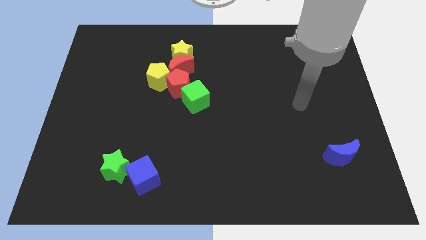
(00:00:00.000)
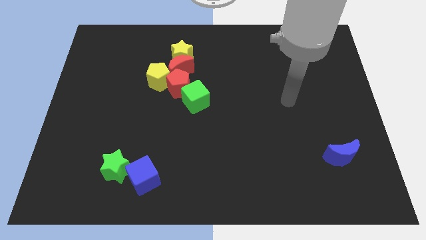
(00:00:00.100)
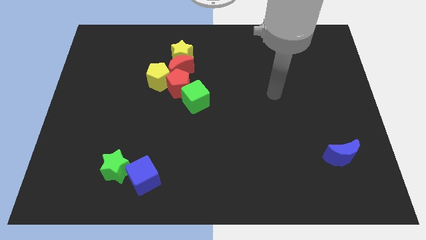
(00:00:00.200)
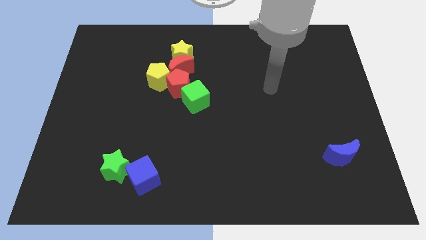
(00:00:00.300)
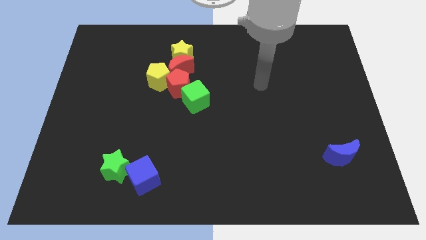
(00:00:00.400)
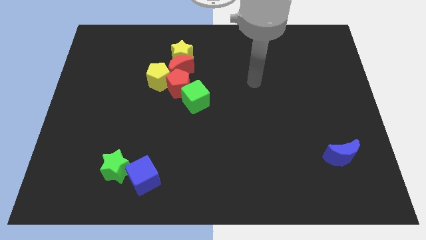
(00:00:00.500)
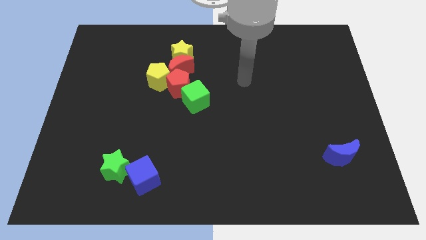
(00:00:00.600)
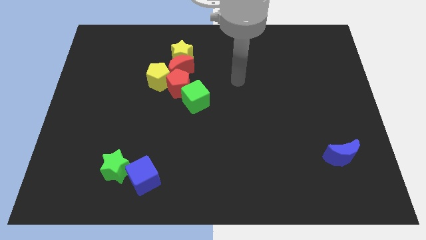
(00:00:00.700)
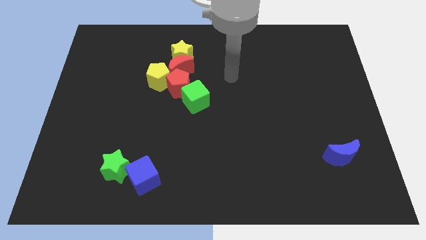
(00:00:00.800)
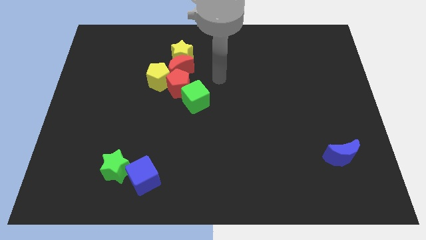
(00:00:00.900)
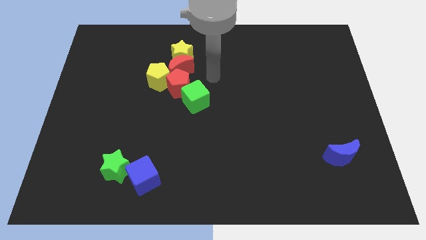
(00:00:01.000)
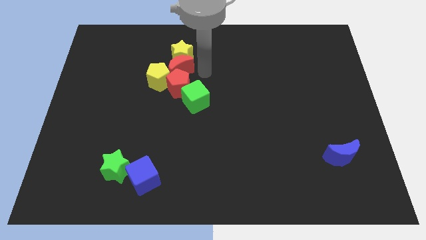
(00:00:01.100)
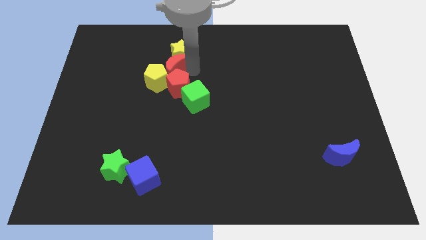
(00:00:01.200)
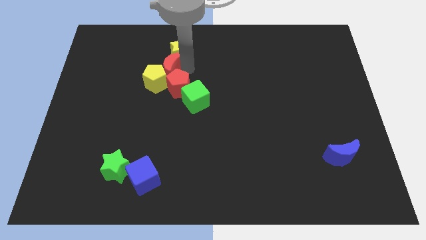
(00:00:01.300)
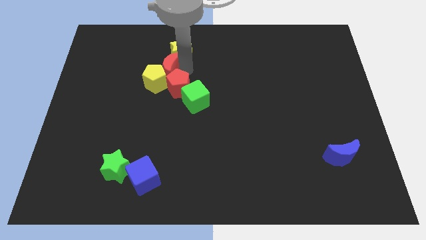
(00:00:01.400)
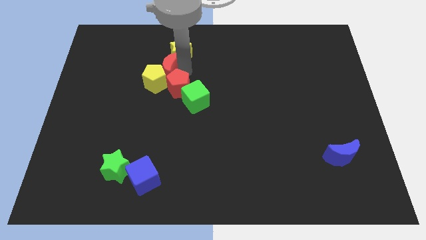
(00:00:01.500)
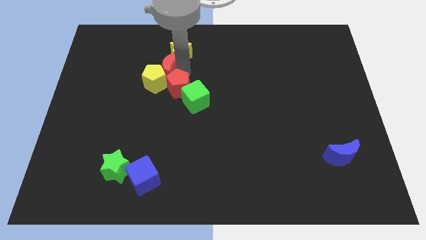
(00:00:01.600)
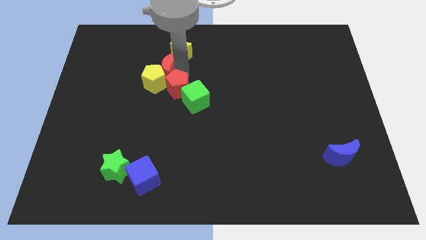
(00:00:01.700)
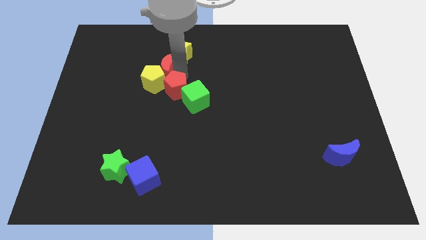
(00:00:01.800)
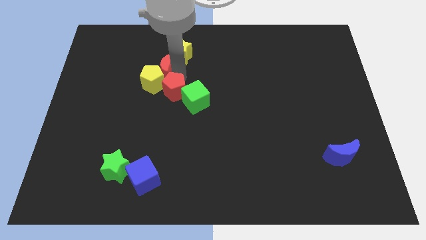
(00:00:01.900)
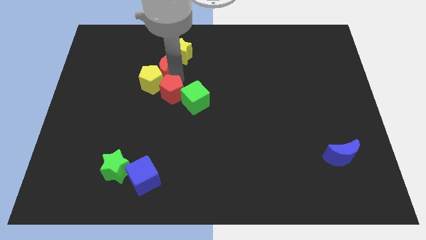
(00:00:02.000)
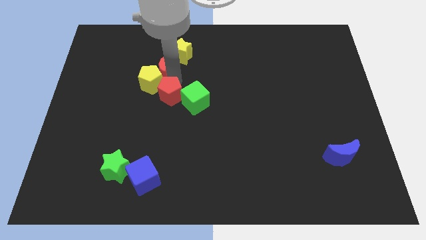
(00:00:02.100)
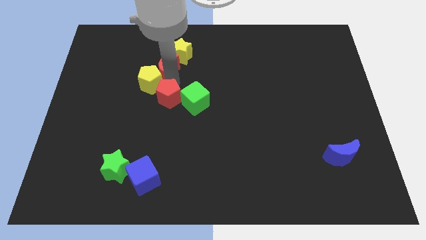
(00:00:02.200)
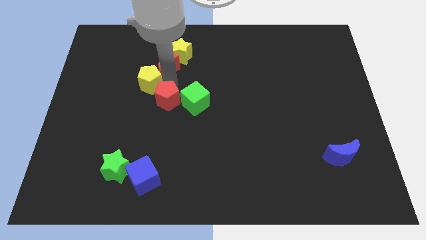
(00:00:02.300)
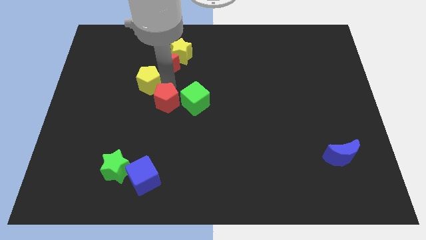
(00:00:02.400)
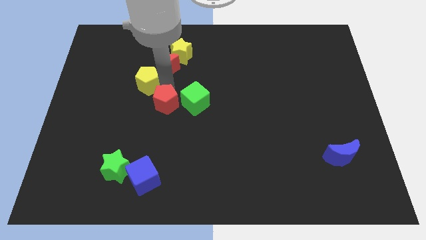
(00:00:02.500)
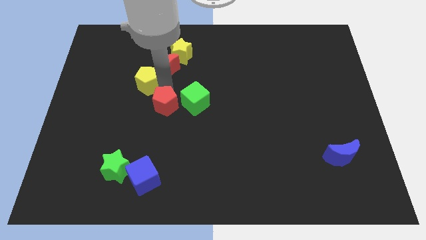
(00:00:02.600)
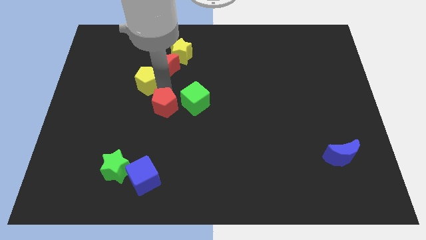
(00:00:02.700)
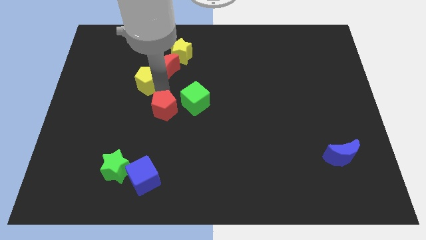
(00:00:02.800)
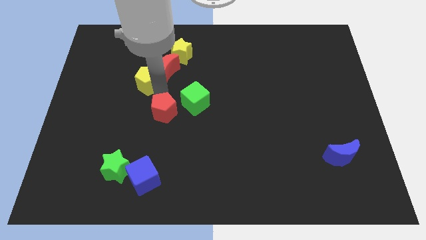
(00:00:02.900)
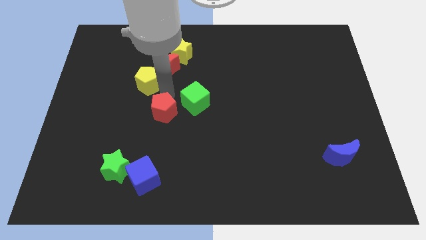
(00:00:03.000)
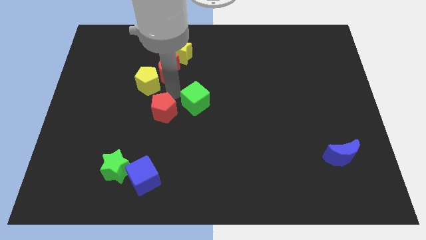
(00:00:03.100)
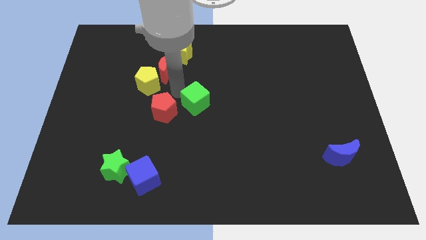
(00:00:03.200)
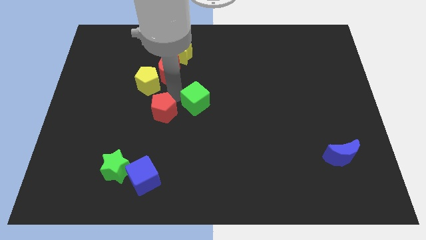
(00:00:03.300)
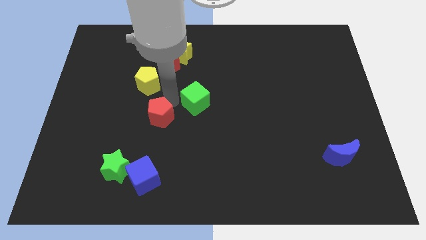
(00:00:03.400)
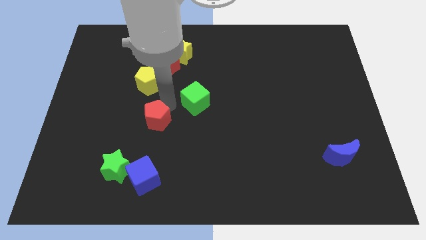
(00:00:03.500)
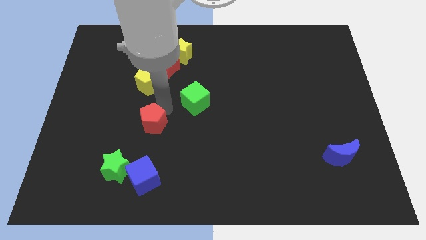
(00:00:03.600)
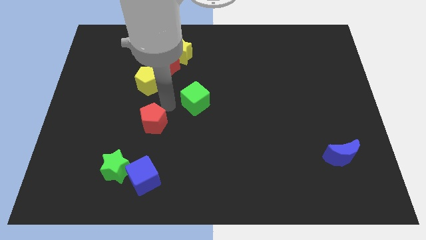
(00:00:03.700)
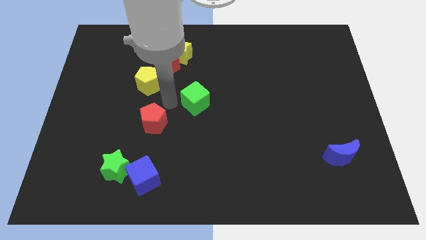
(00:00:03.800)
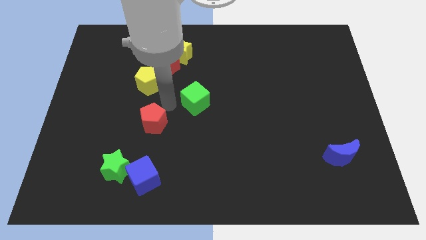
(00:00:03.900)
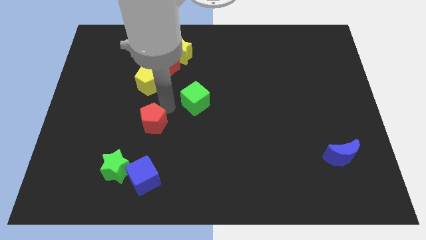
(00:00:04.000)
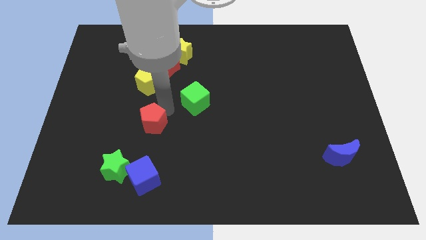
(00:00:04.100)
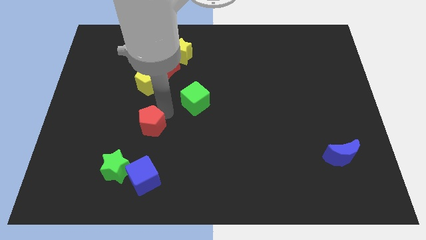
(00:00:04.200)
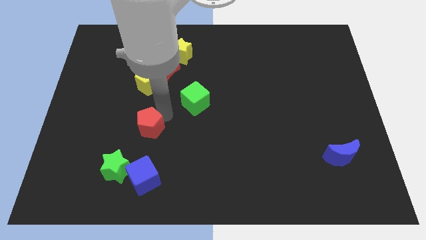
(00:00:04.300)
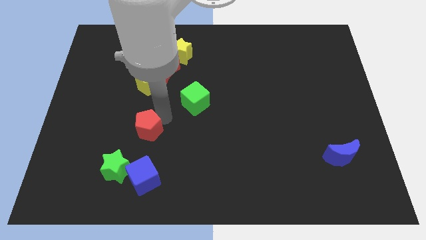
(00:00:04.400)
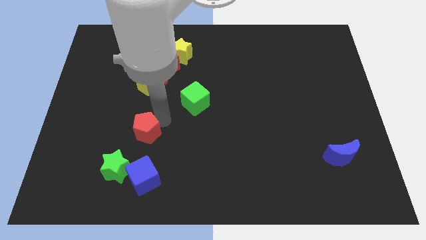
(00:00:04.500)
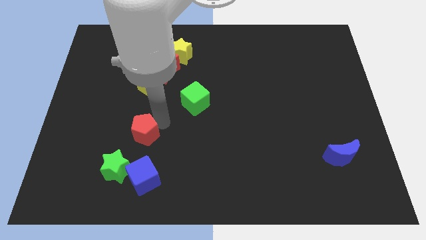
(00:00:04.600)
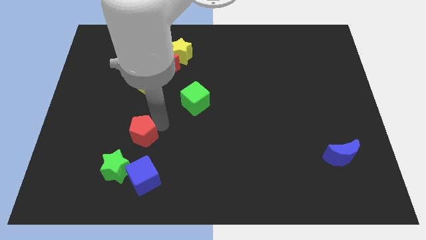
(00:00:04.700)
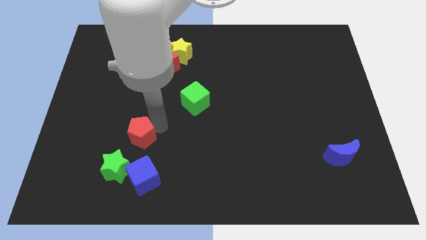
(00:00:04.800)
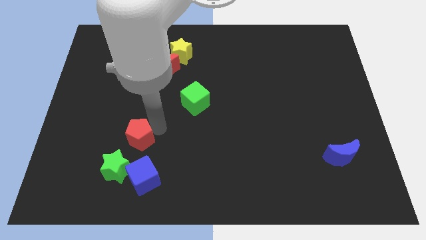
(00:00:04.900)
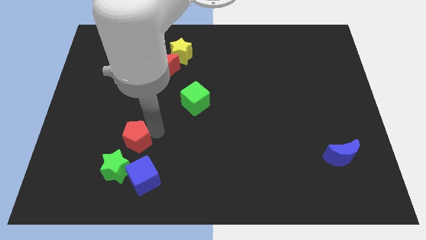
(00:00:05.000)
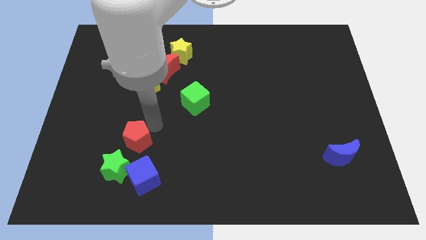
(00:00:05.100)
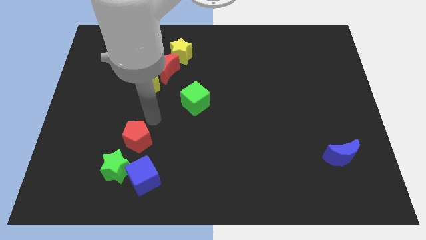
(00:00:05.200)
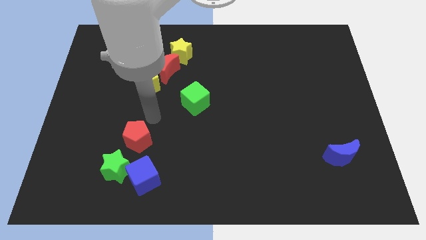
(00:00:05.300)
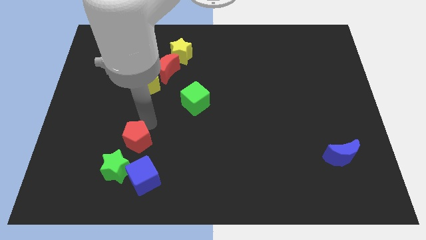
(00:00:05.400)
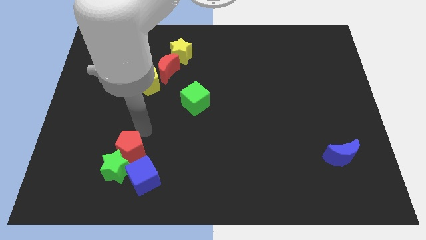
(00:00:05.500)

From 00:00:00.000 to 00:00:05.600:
slide the red pentagon to the green star

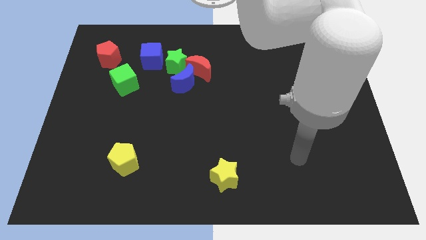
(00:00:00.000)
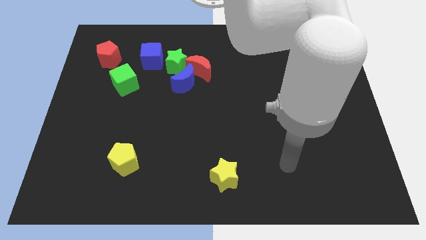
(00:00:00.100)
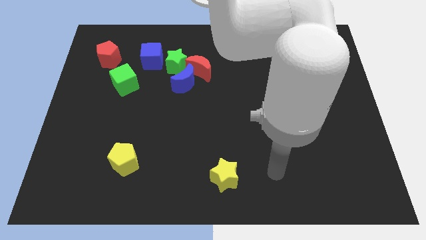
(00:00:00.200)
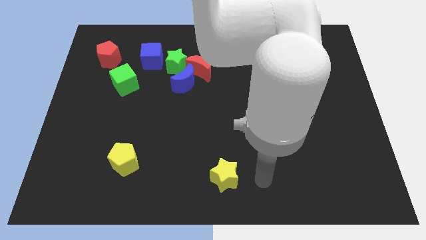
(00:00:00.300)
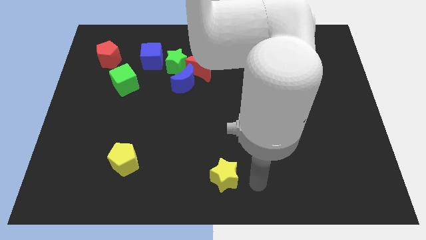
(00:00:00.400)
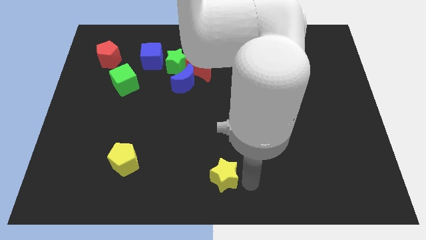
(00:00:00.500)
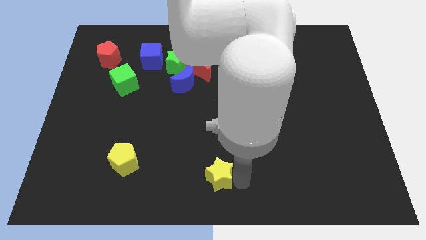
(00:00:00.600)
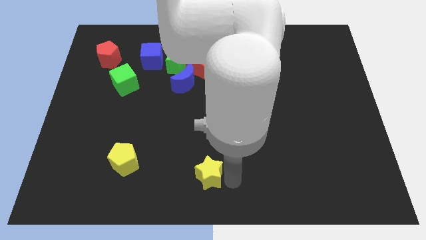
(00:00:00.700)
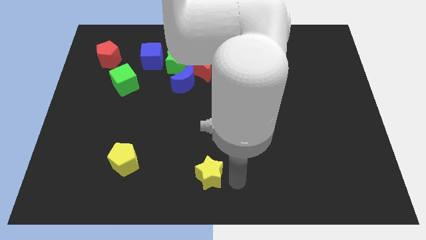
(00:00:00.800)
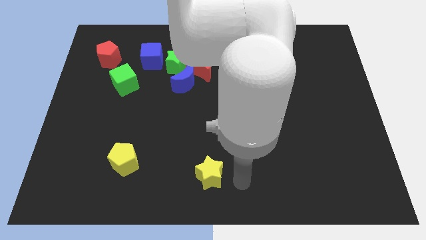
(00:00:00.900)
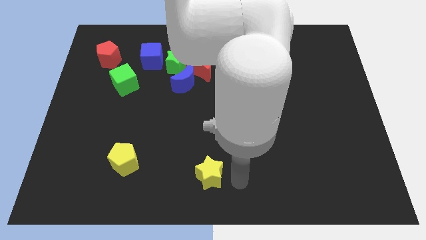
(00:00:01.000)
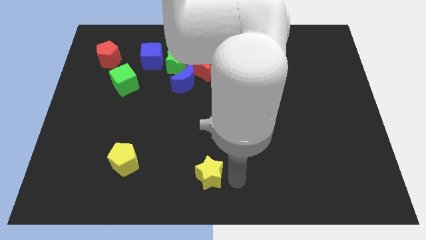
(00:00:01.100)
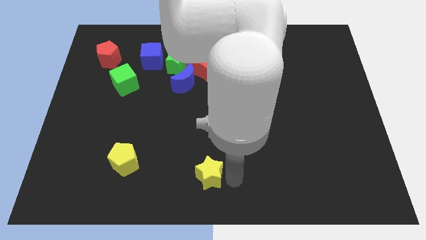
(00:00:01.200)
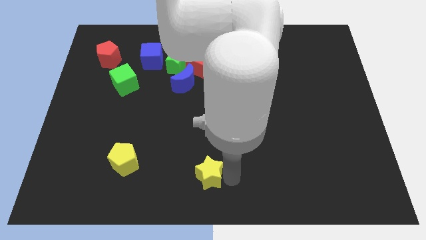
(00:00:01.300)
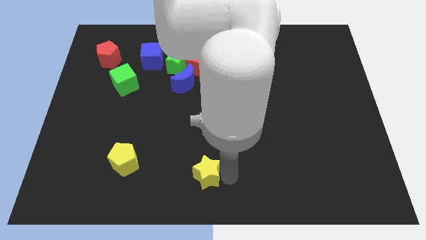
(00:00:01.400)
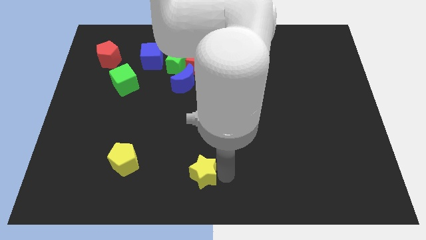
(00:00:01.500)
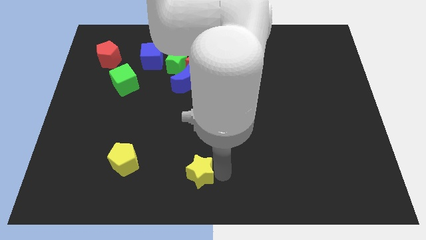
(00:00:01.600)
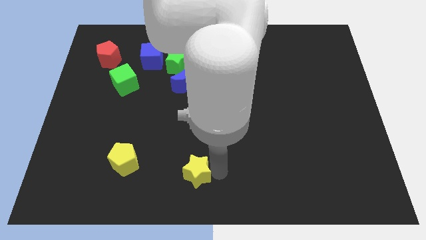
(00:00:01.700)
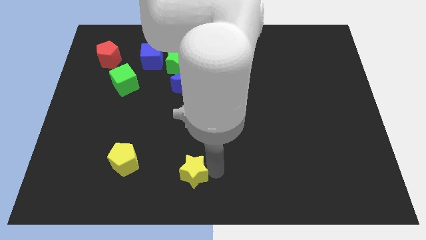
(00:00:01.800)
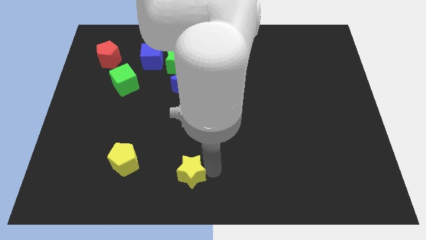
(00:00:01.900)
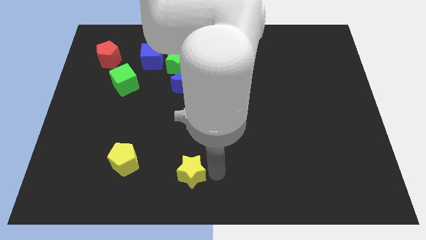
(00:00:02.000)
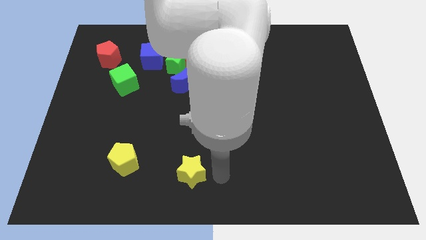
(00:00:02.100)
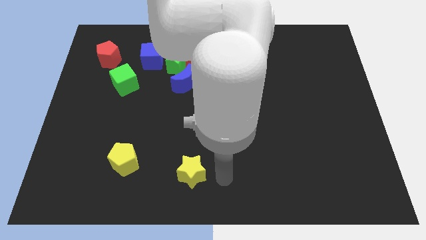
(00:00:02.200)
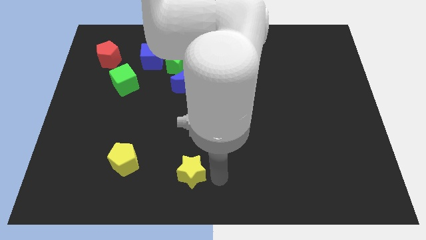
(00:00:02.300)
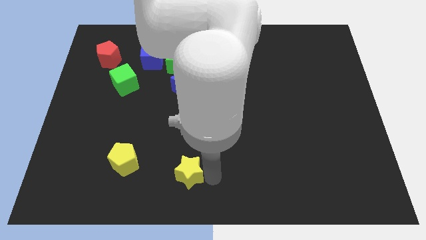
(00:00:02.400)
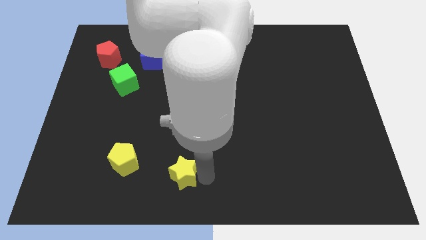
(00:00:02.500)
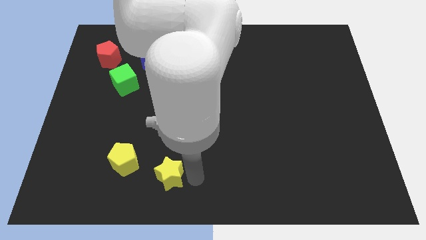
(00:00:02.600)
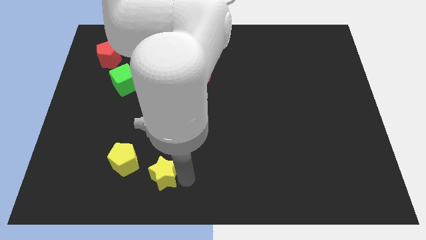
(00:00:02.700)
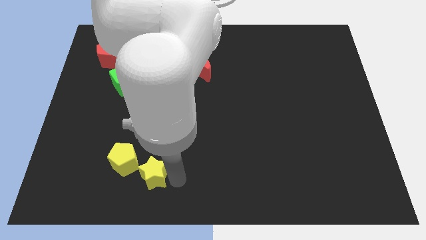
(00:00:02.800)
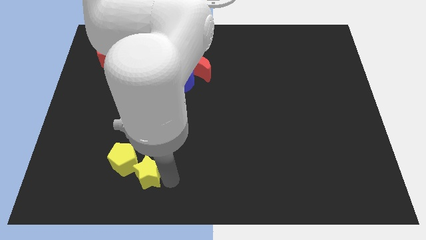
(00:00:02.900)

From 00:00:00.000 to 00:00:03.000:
slide the yellow star towards the yellow pentagon
